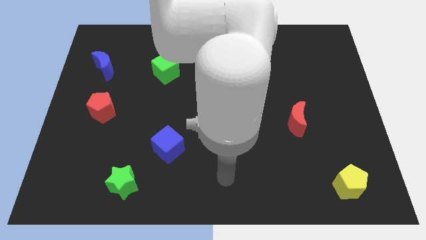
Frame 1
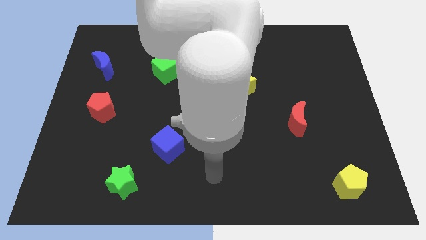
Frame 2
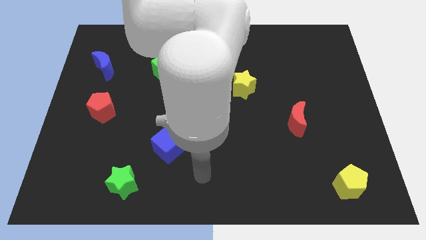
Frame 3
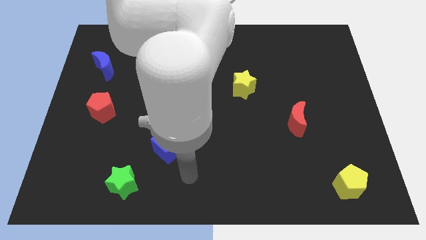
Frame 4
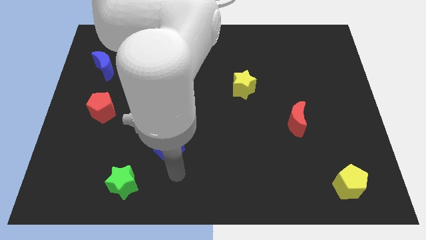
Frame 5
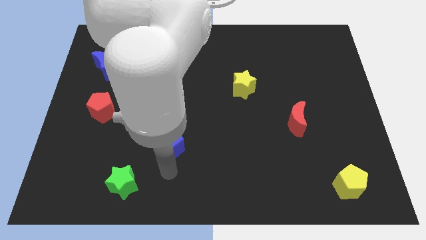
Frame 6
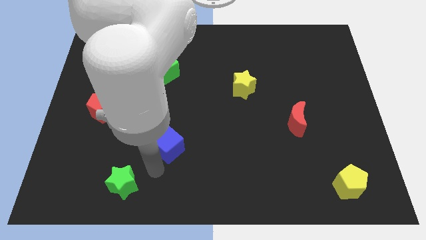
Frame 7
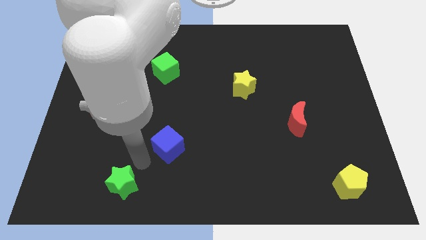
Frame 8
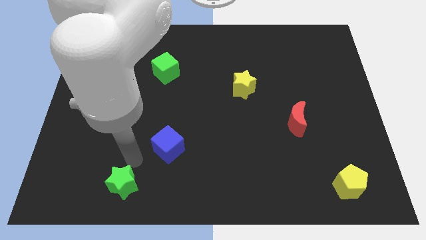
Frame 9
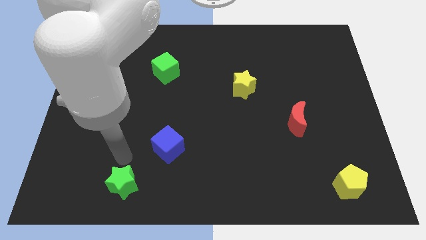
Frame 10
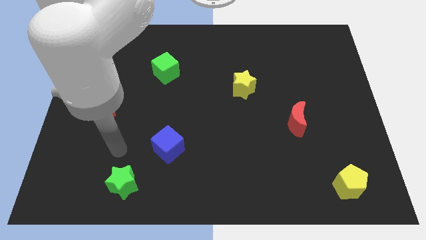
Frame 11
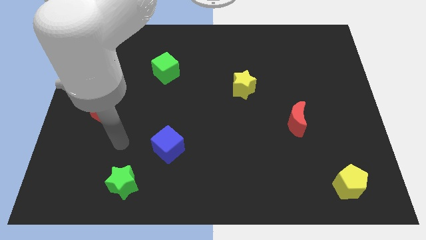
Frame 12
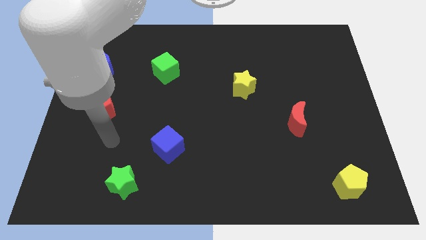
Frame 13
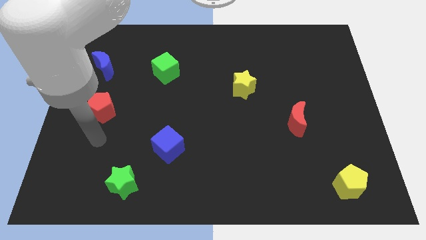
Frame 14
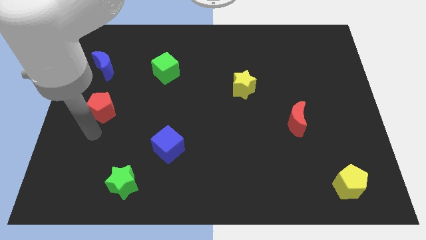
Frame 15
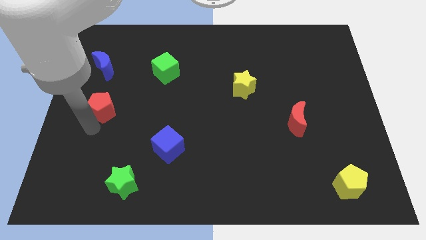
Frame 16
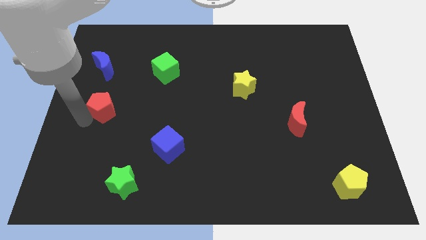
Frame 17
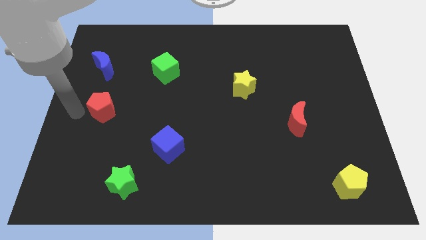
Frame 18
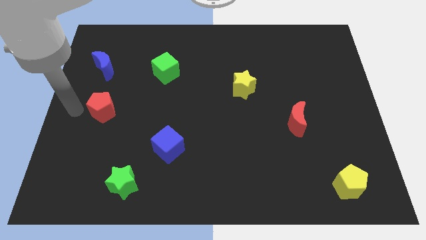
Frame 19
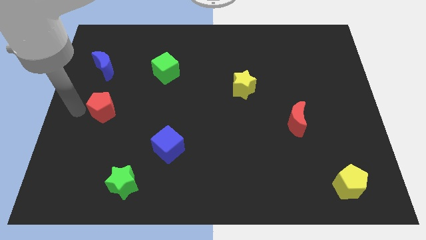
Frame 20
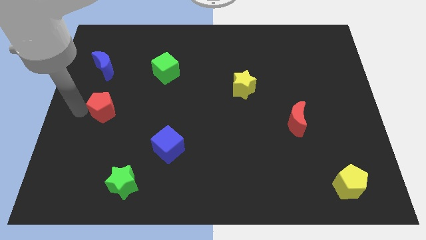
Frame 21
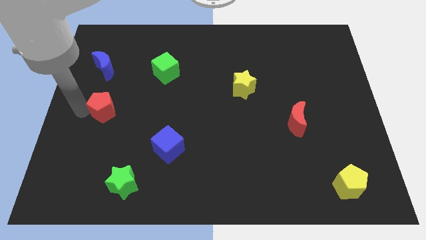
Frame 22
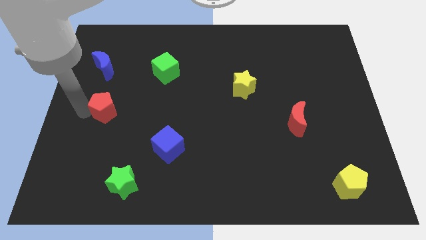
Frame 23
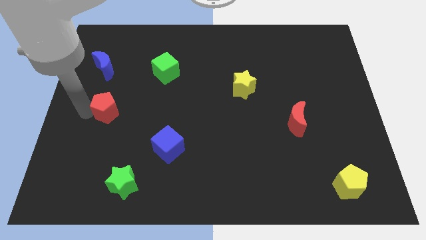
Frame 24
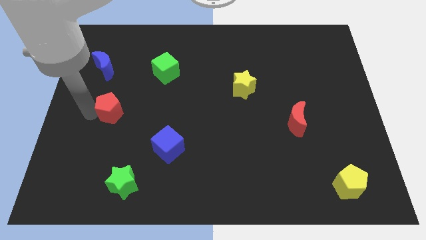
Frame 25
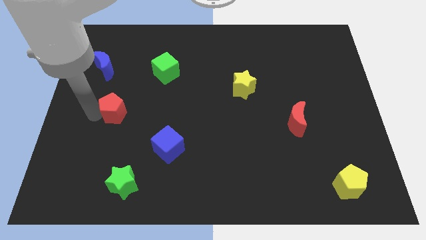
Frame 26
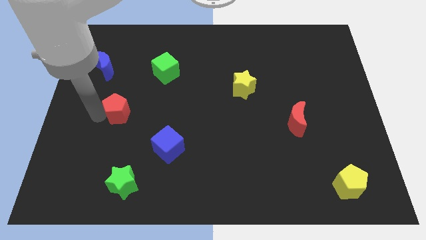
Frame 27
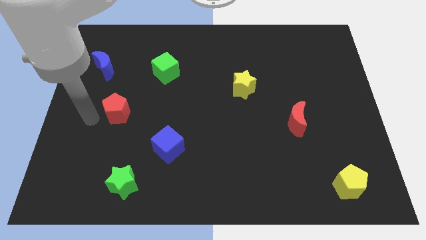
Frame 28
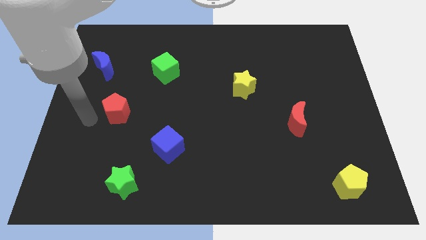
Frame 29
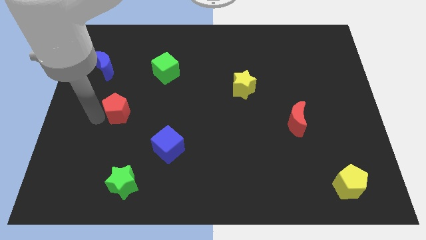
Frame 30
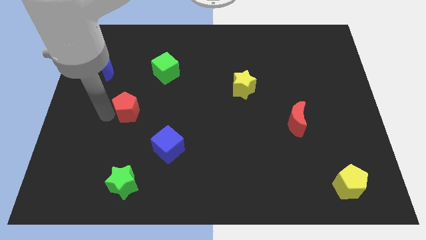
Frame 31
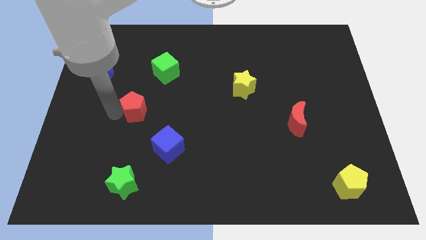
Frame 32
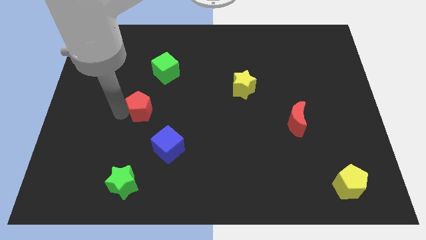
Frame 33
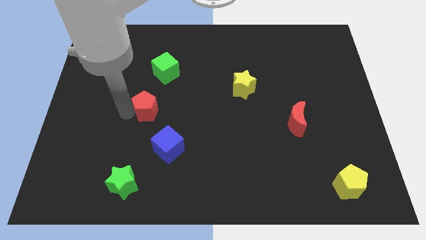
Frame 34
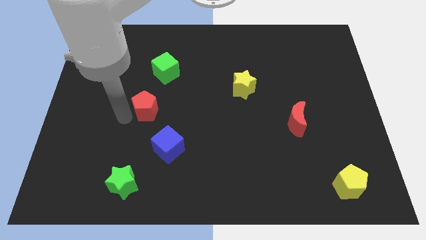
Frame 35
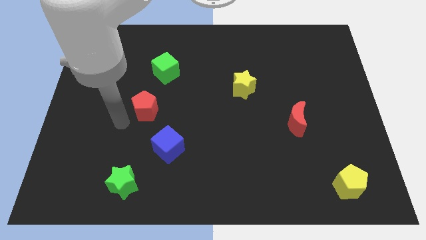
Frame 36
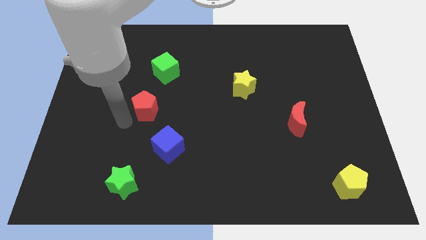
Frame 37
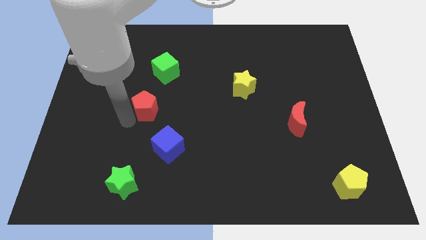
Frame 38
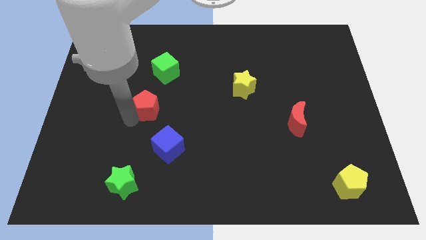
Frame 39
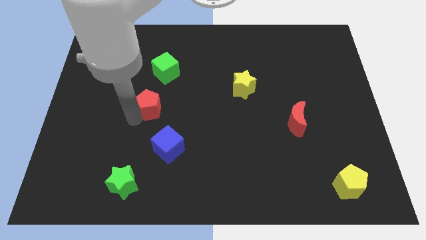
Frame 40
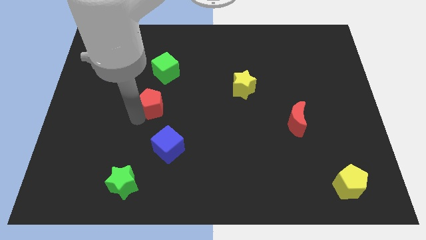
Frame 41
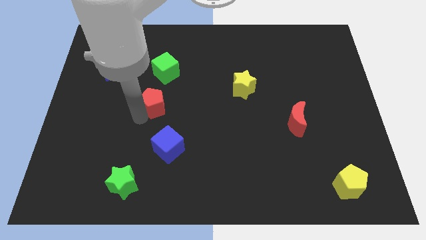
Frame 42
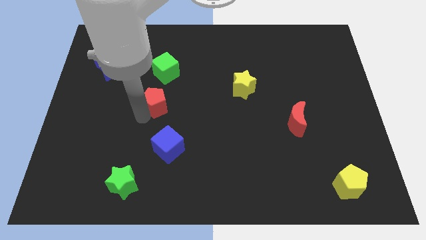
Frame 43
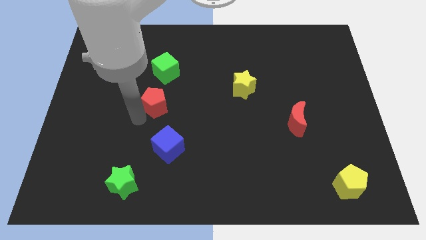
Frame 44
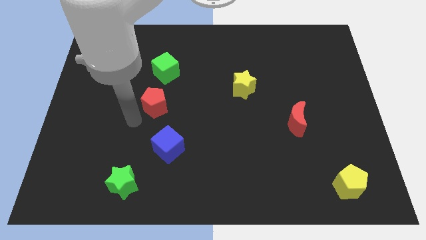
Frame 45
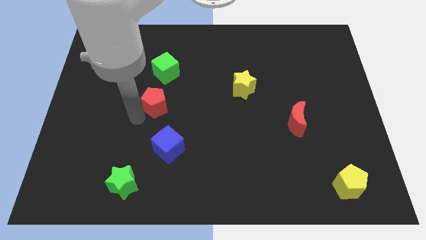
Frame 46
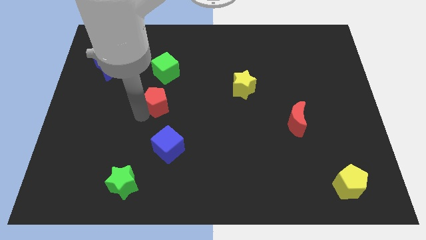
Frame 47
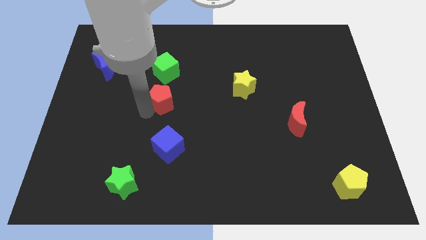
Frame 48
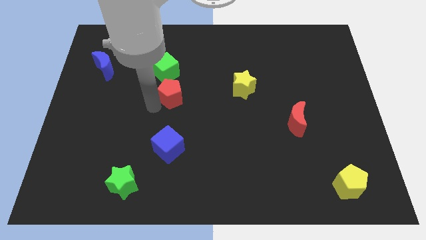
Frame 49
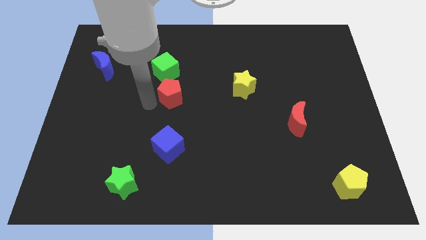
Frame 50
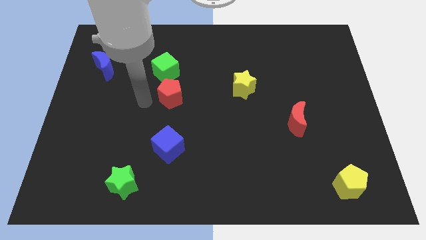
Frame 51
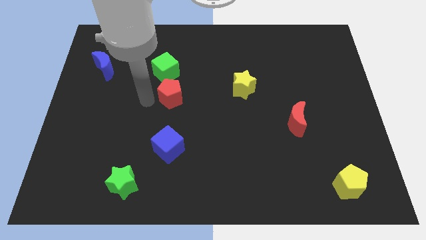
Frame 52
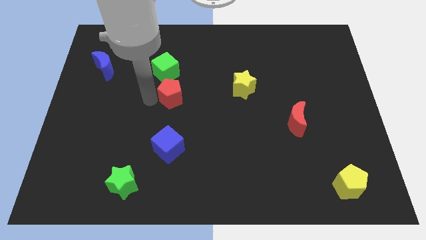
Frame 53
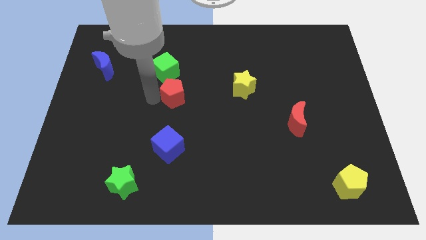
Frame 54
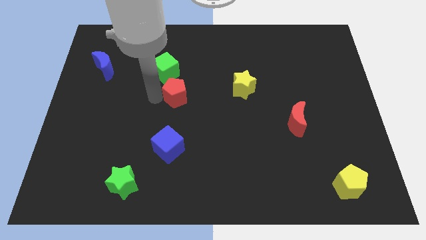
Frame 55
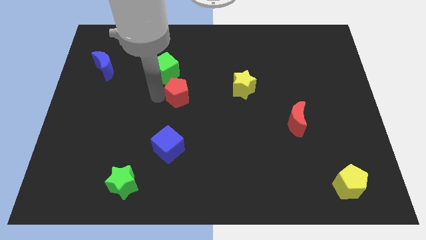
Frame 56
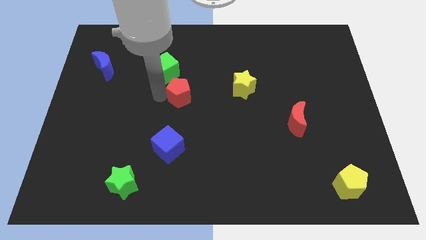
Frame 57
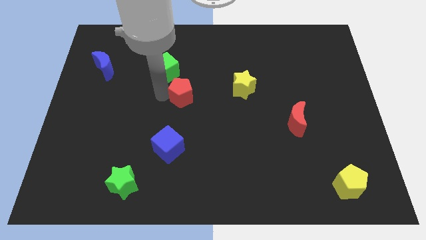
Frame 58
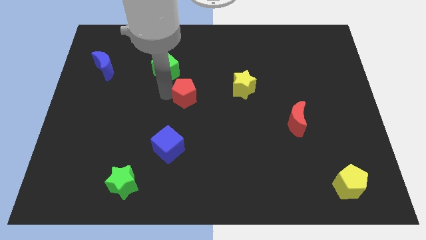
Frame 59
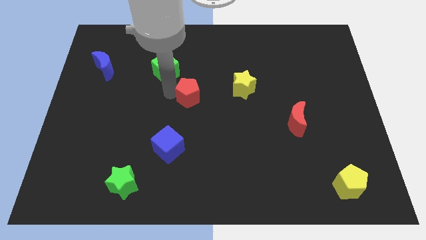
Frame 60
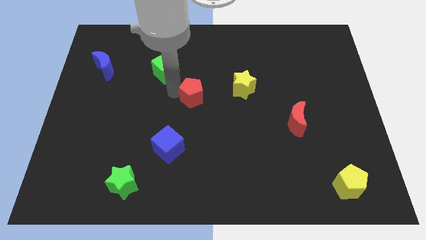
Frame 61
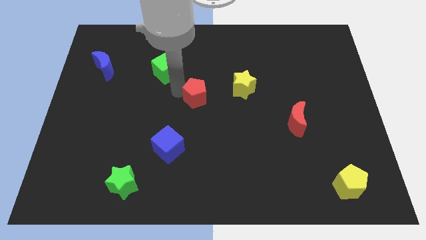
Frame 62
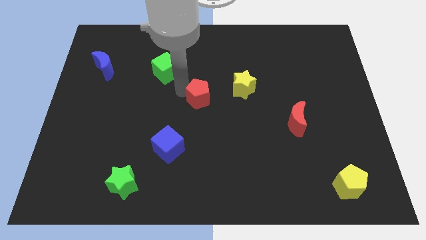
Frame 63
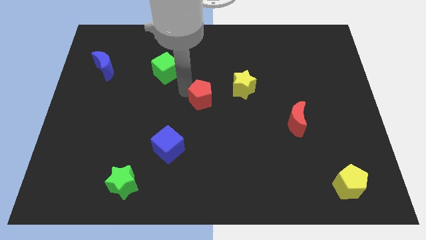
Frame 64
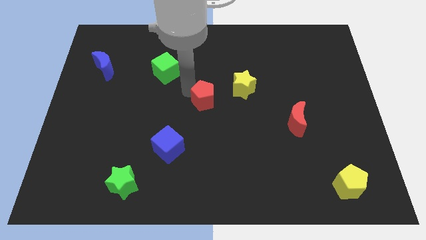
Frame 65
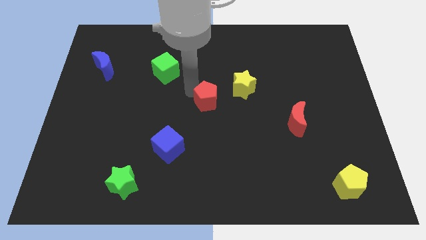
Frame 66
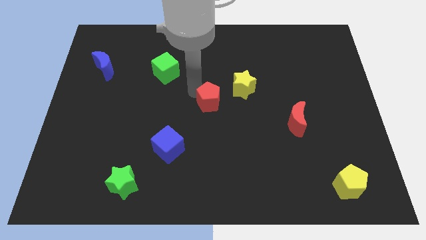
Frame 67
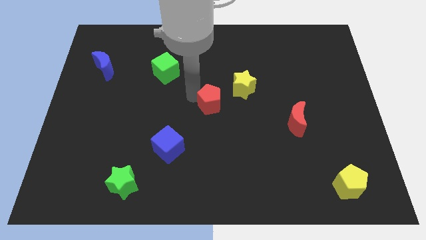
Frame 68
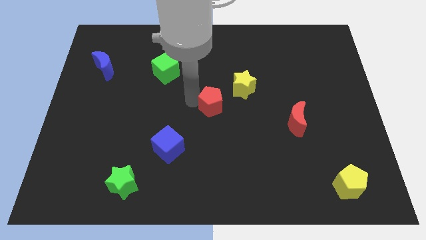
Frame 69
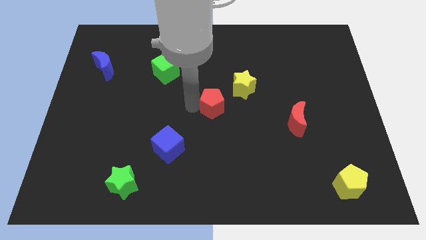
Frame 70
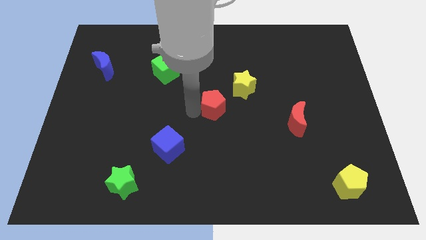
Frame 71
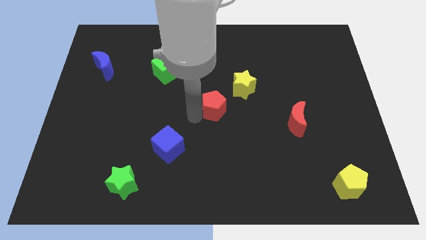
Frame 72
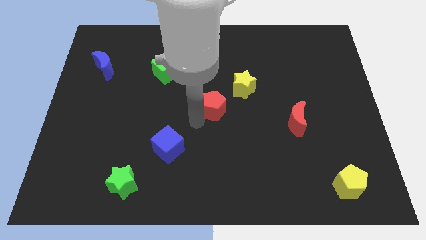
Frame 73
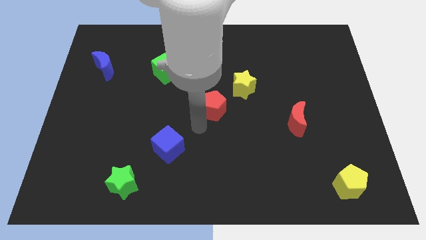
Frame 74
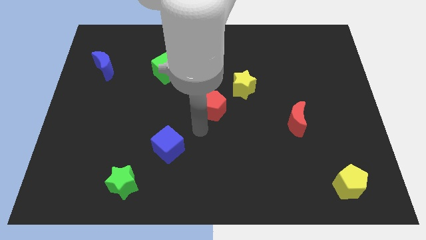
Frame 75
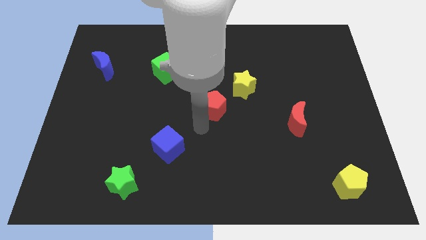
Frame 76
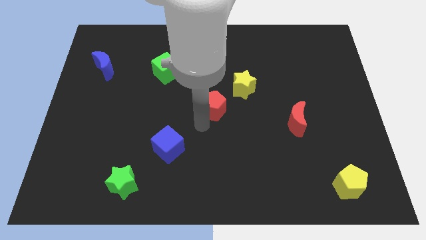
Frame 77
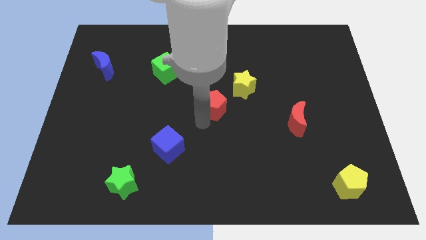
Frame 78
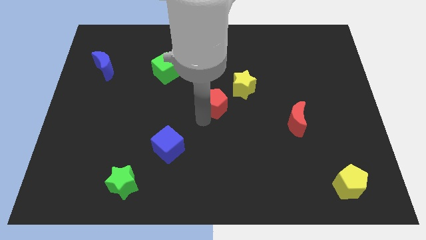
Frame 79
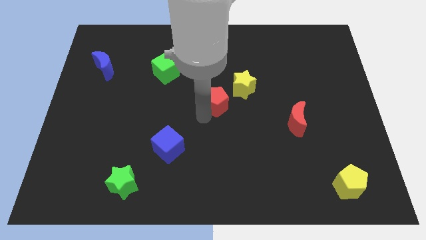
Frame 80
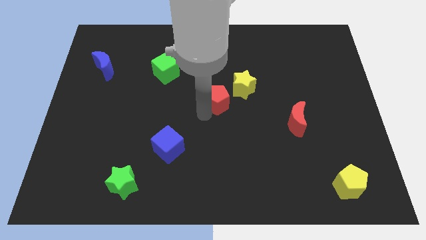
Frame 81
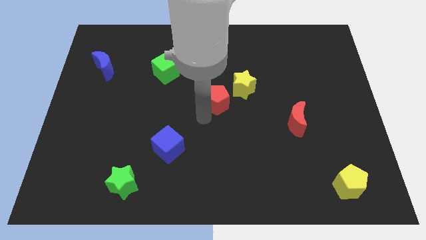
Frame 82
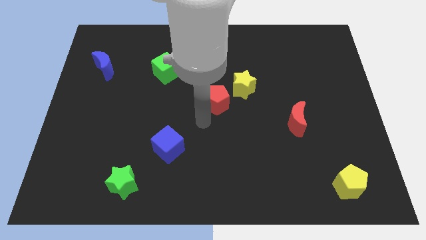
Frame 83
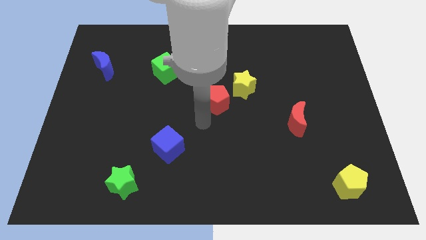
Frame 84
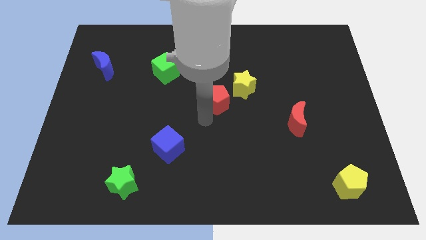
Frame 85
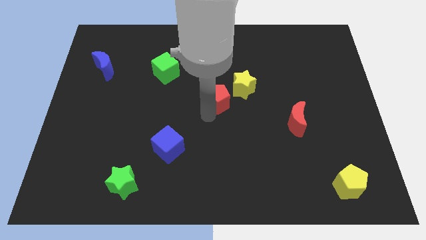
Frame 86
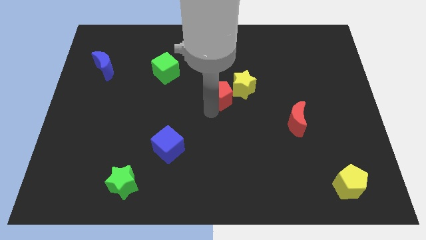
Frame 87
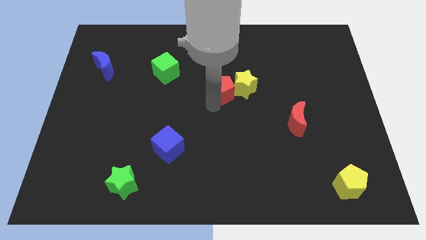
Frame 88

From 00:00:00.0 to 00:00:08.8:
put the red pentagon next to the yellow star
